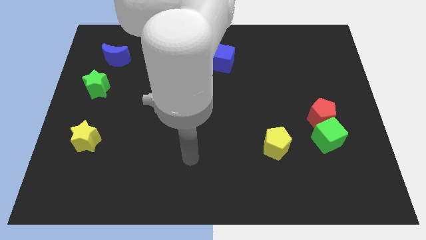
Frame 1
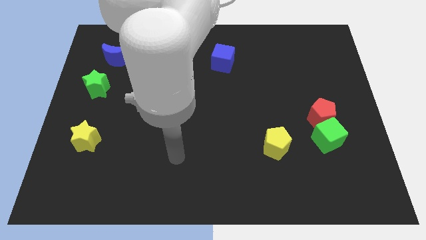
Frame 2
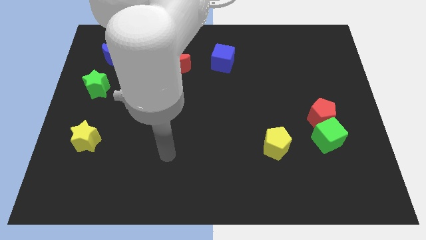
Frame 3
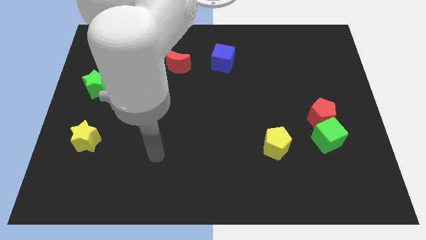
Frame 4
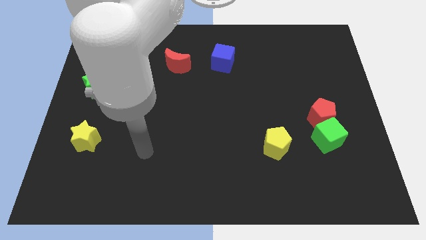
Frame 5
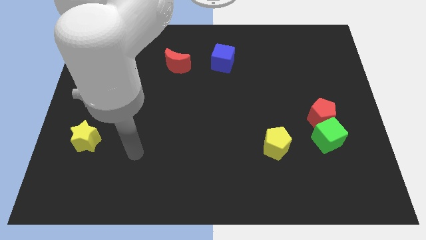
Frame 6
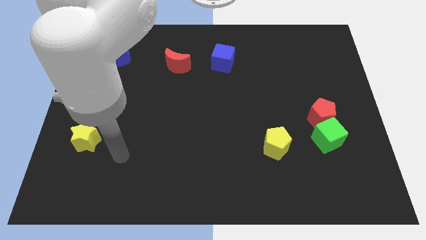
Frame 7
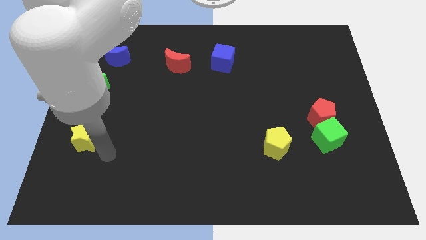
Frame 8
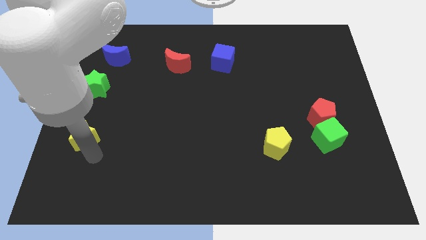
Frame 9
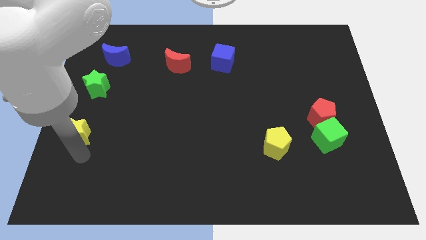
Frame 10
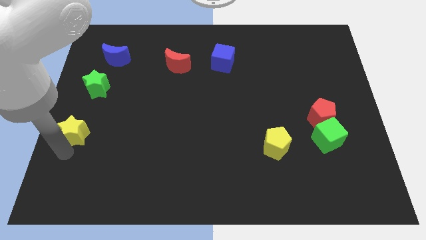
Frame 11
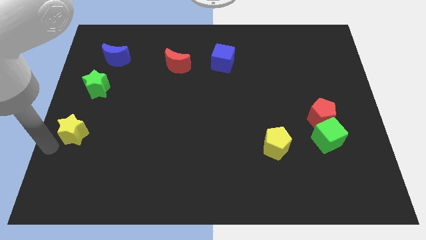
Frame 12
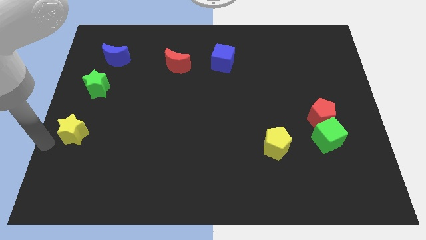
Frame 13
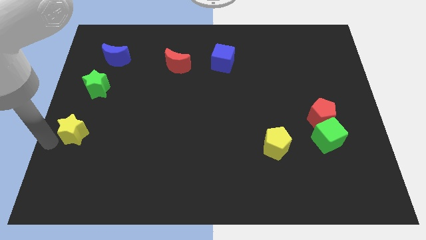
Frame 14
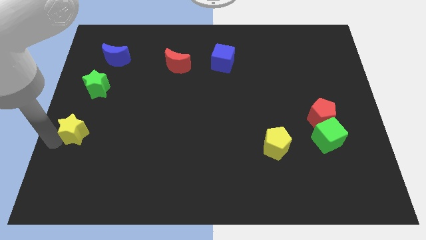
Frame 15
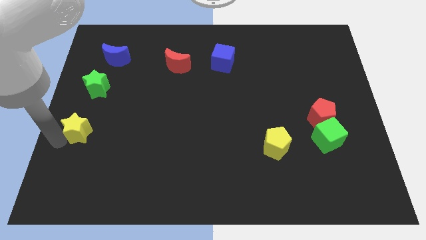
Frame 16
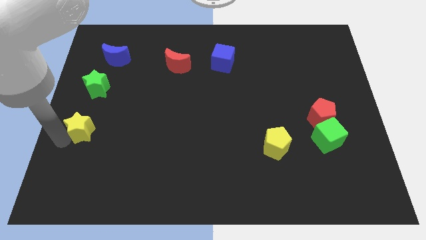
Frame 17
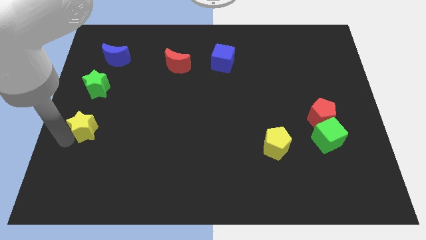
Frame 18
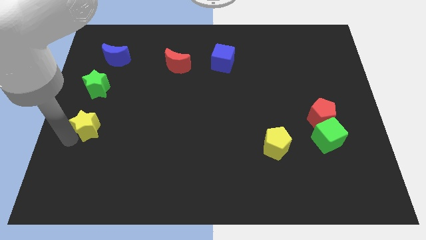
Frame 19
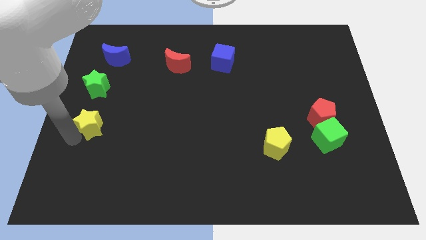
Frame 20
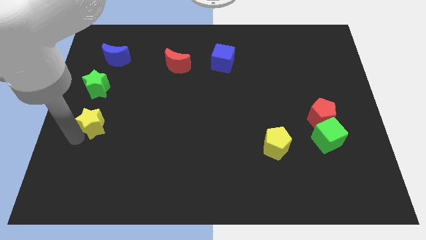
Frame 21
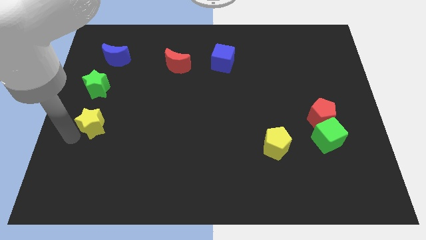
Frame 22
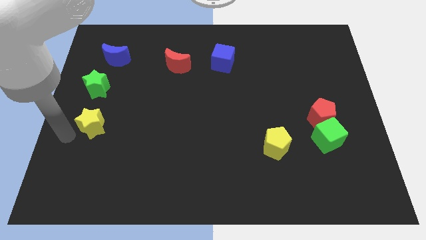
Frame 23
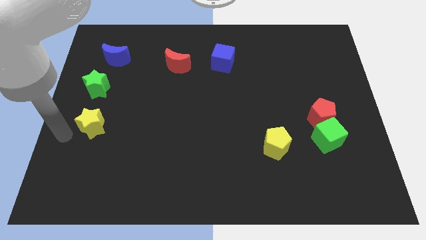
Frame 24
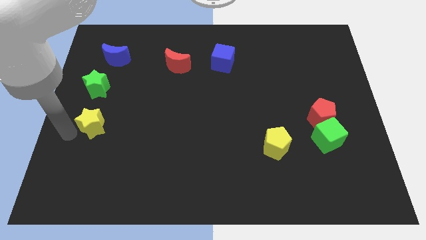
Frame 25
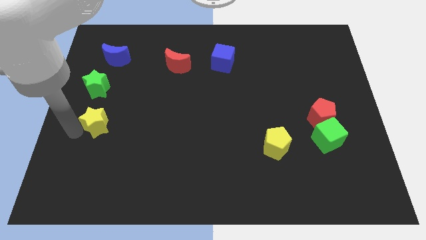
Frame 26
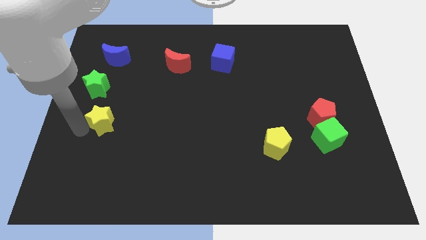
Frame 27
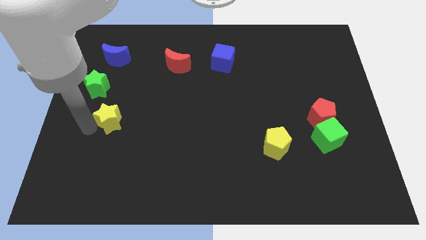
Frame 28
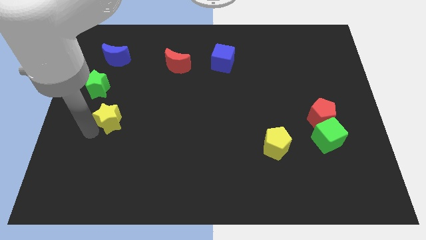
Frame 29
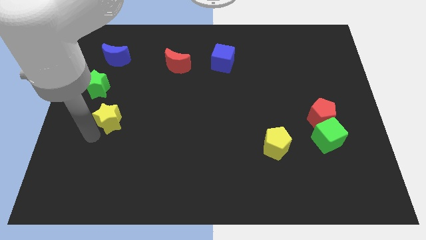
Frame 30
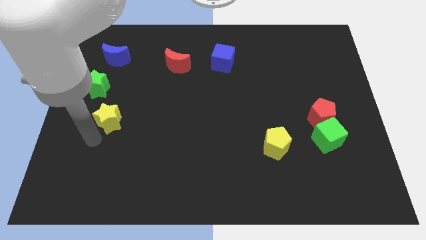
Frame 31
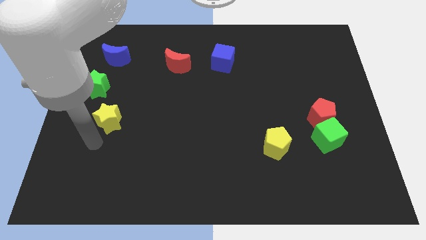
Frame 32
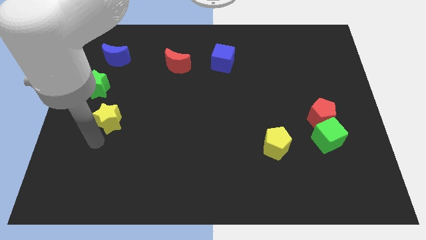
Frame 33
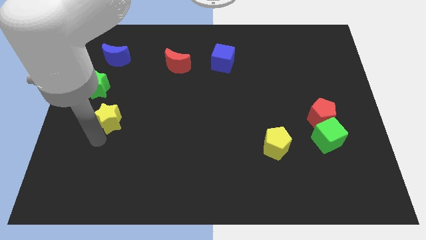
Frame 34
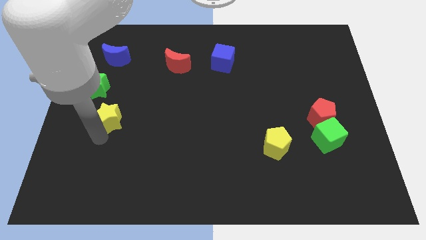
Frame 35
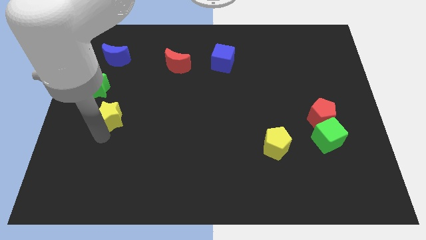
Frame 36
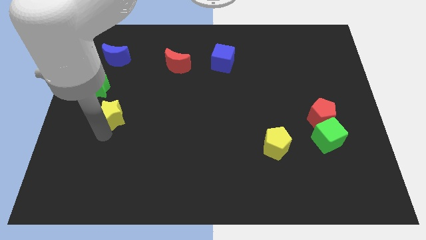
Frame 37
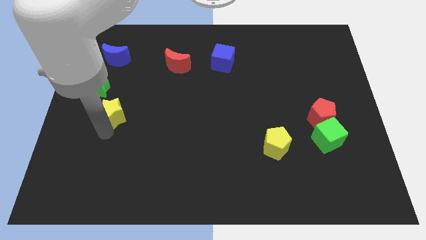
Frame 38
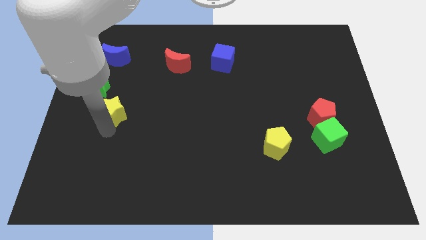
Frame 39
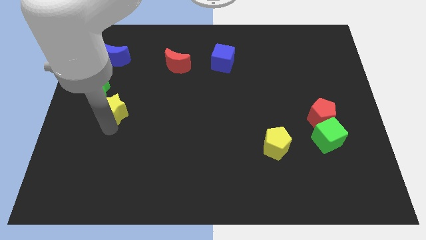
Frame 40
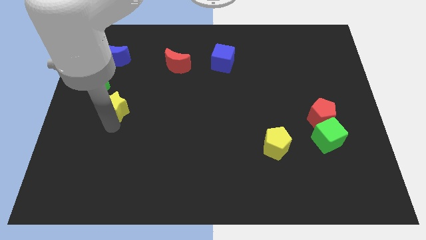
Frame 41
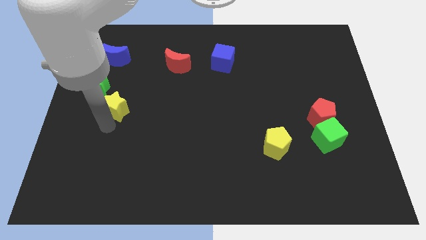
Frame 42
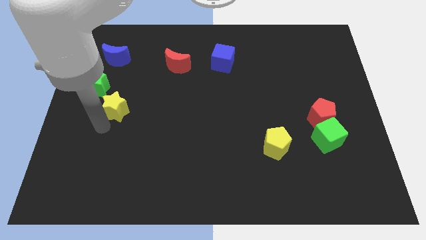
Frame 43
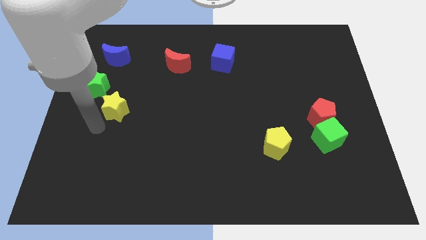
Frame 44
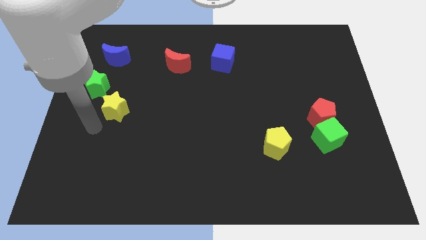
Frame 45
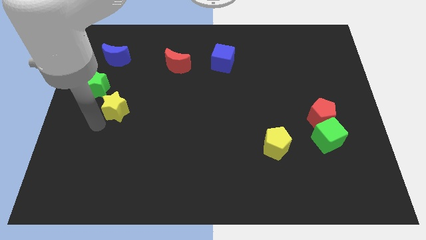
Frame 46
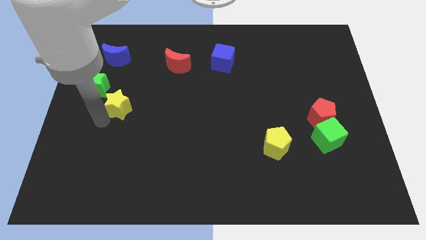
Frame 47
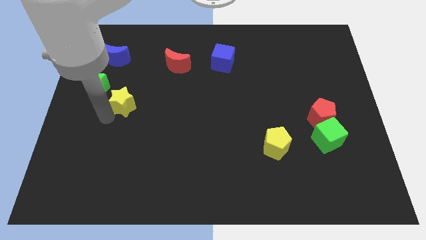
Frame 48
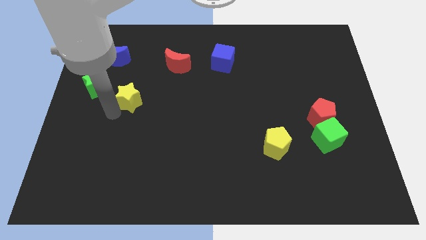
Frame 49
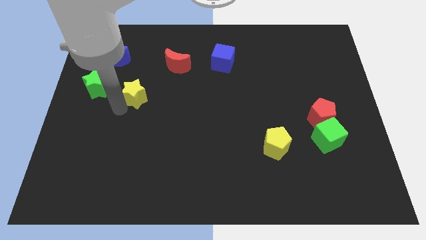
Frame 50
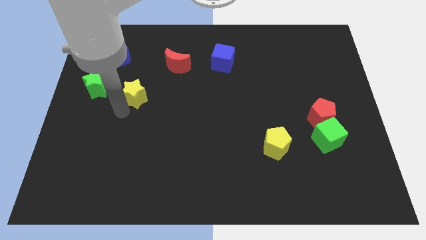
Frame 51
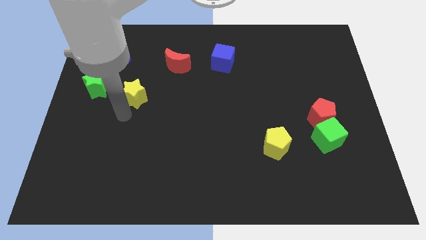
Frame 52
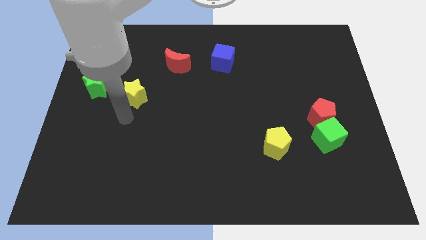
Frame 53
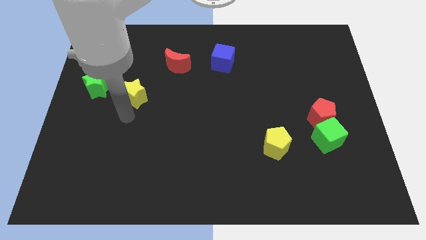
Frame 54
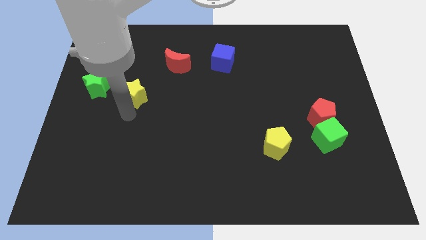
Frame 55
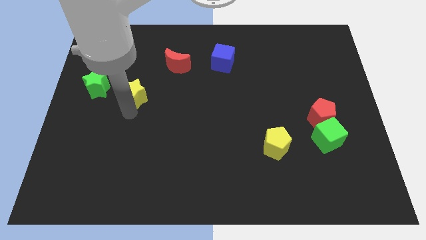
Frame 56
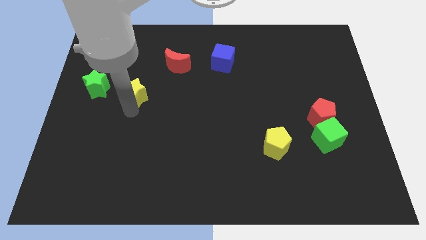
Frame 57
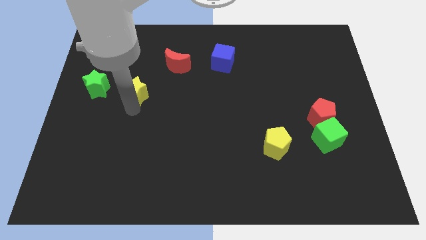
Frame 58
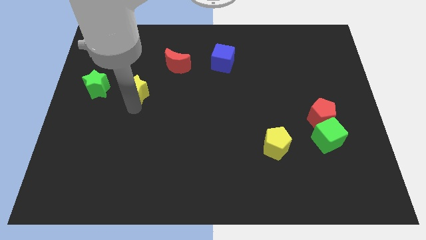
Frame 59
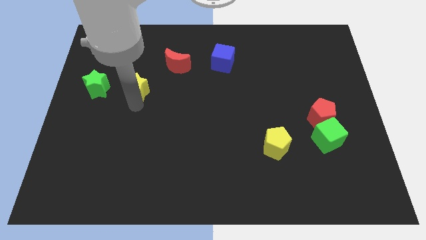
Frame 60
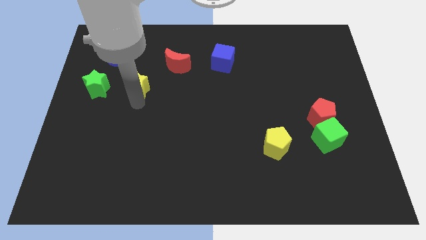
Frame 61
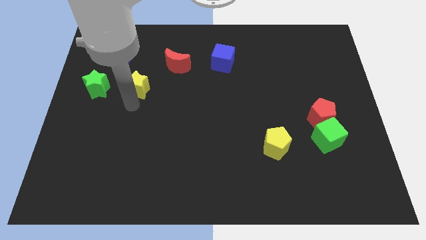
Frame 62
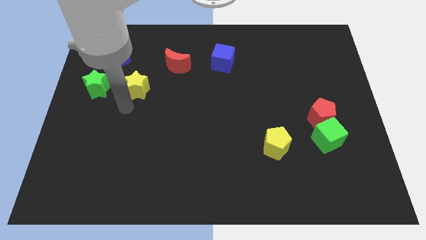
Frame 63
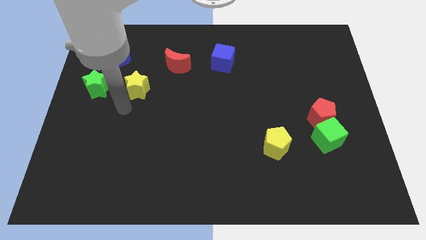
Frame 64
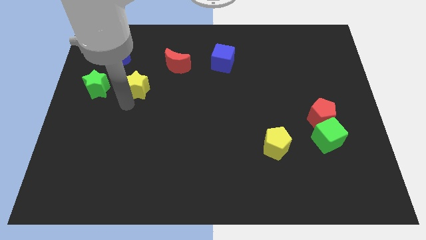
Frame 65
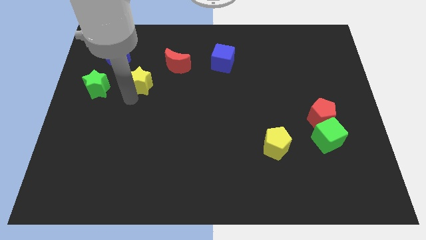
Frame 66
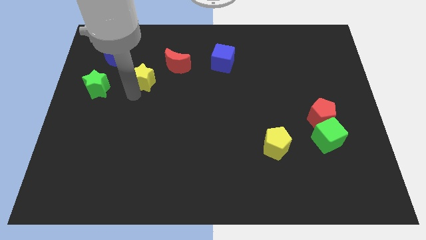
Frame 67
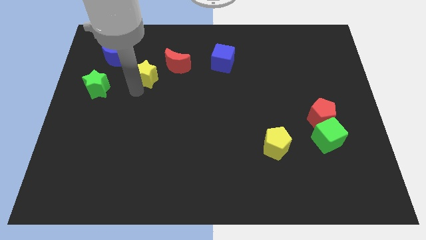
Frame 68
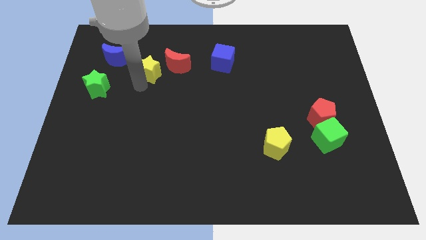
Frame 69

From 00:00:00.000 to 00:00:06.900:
push the yellow star just right of the blue moon

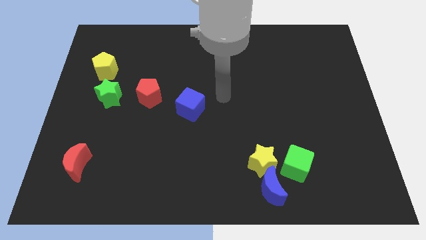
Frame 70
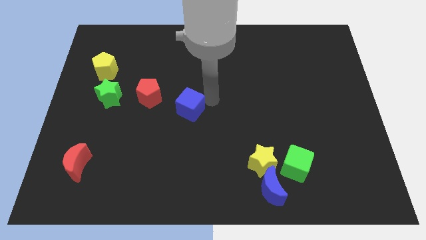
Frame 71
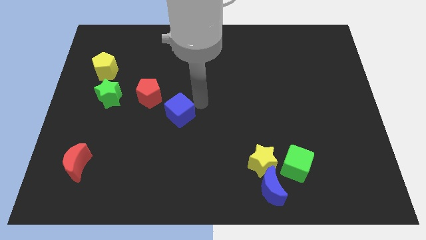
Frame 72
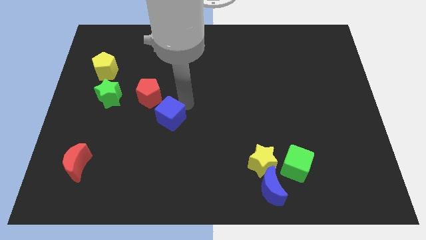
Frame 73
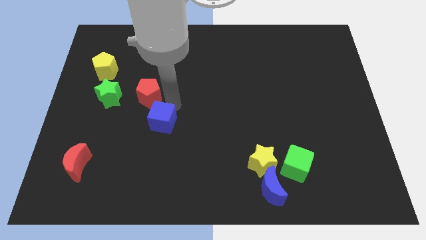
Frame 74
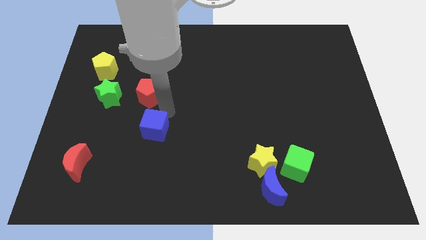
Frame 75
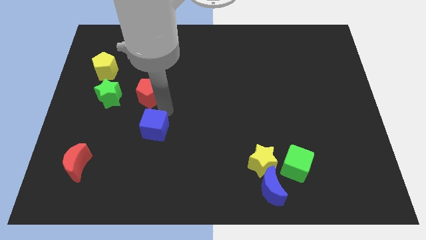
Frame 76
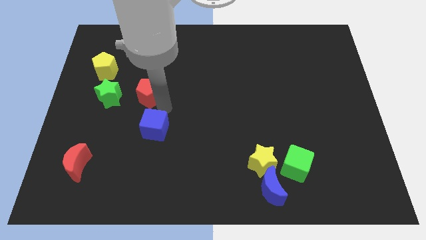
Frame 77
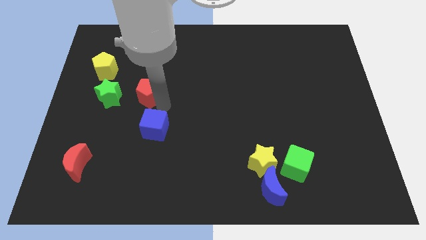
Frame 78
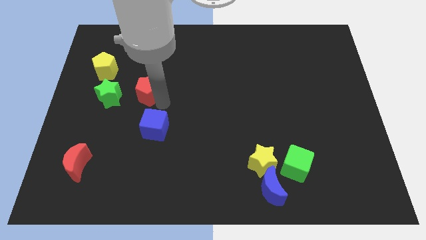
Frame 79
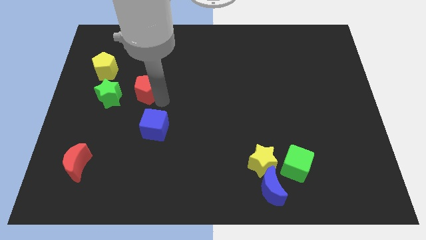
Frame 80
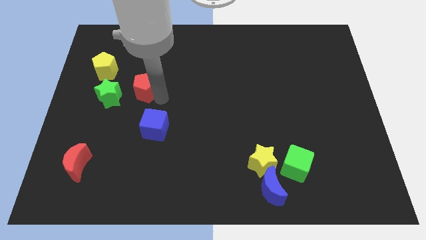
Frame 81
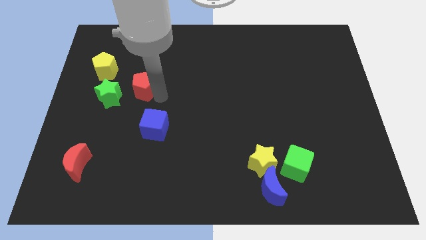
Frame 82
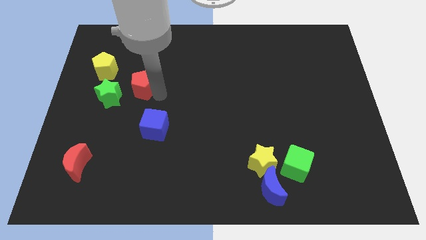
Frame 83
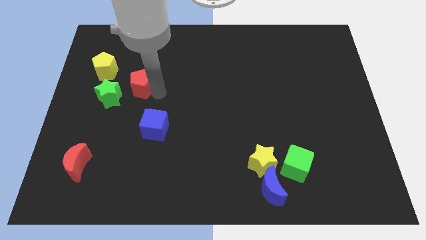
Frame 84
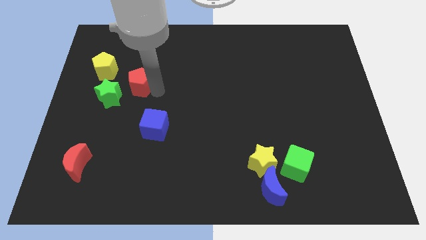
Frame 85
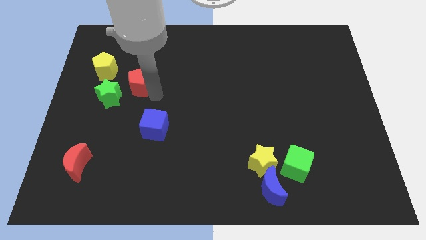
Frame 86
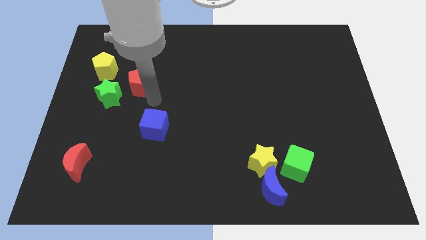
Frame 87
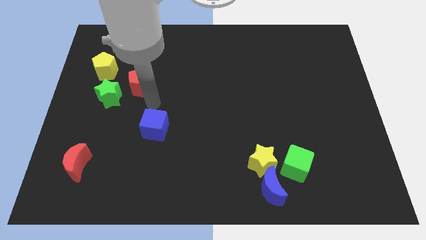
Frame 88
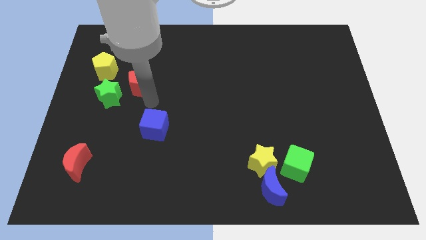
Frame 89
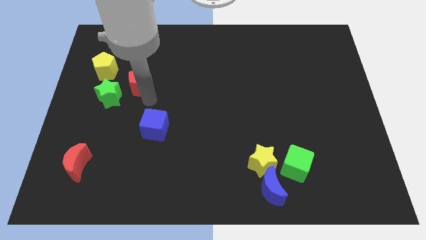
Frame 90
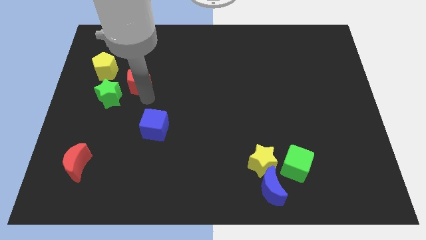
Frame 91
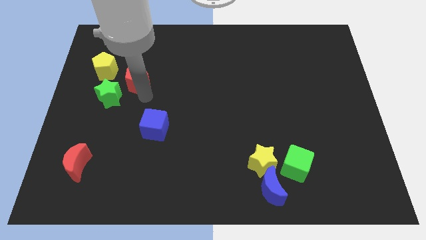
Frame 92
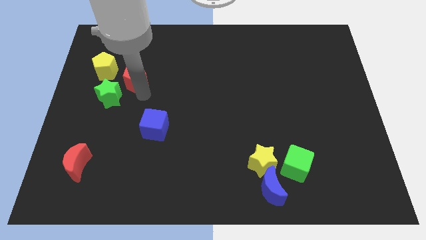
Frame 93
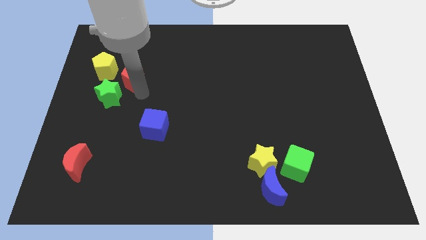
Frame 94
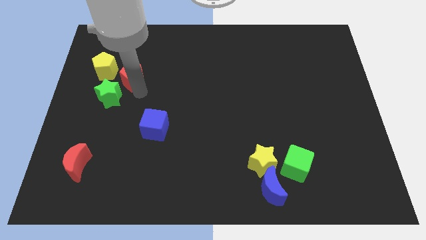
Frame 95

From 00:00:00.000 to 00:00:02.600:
put the red pentagon to the top side of the green star
